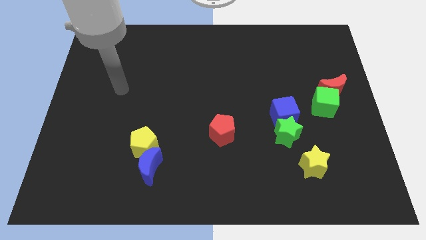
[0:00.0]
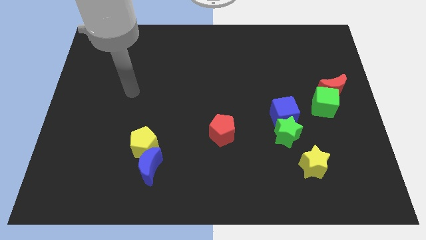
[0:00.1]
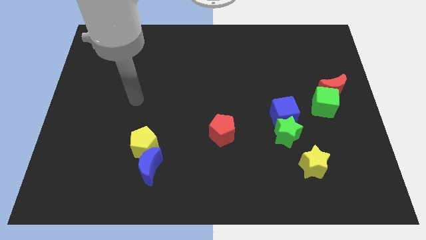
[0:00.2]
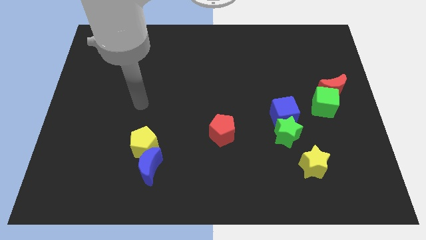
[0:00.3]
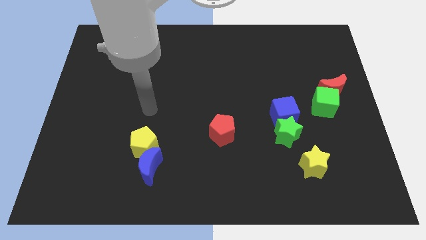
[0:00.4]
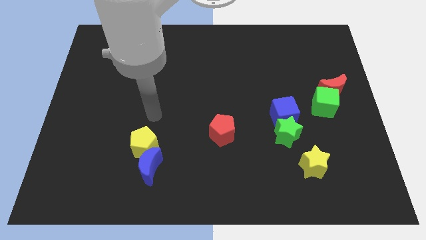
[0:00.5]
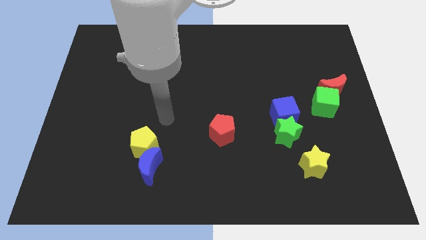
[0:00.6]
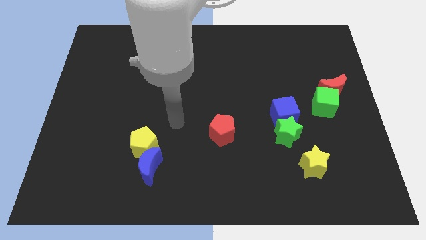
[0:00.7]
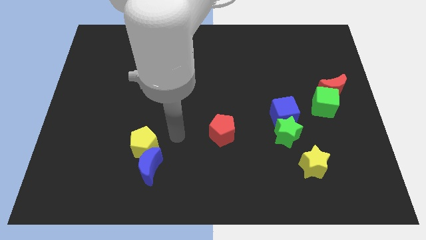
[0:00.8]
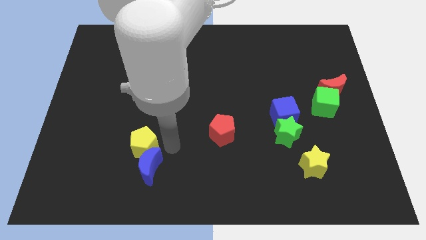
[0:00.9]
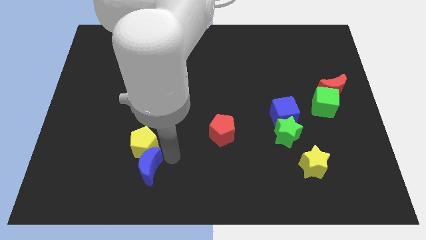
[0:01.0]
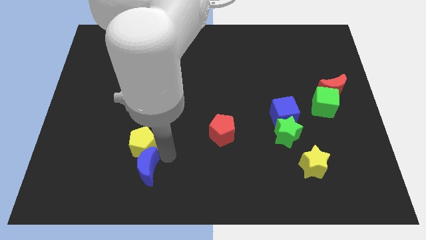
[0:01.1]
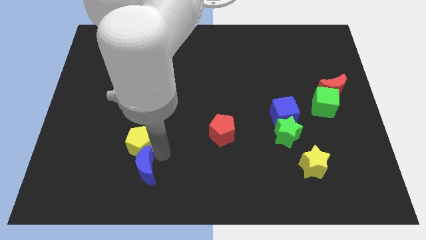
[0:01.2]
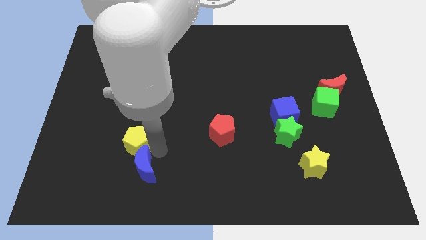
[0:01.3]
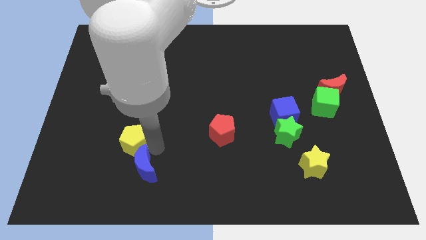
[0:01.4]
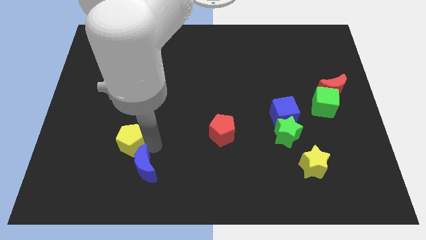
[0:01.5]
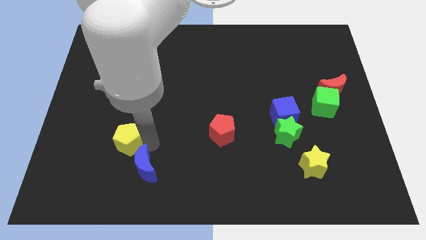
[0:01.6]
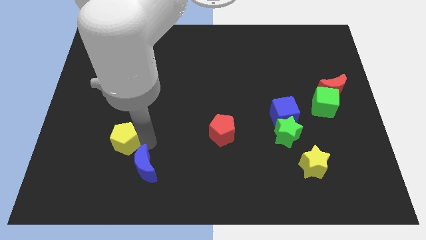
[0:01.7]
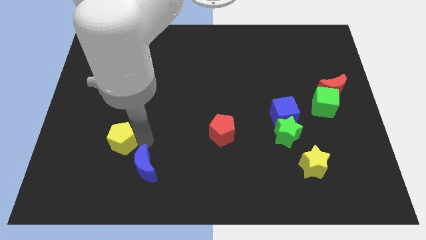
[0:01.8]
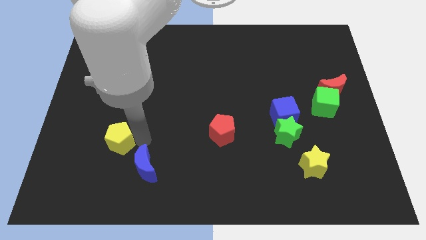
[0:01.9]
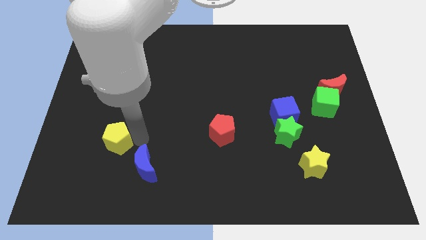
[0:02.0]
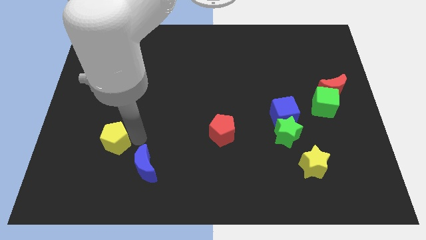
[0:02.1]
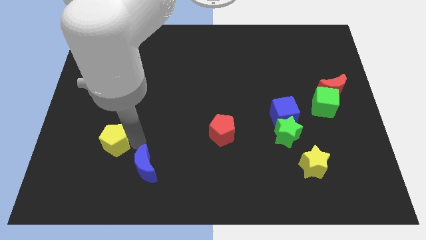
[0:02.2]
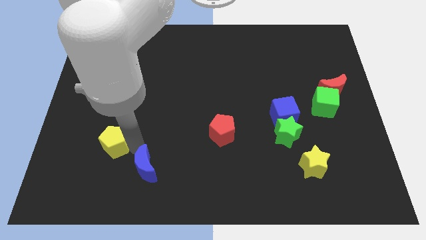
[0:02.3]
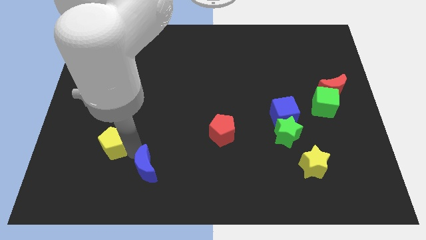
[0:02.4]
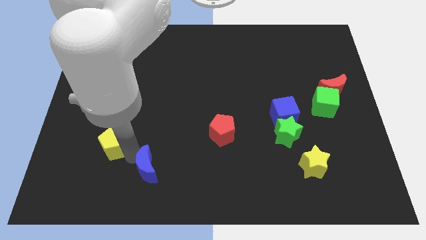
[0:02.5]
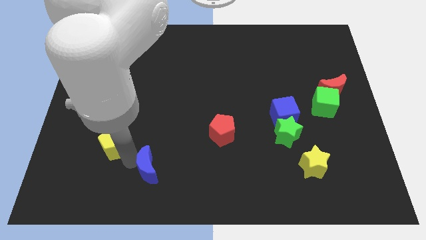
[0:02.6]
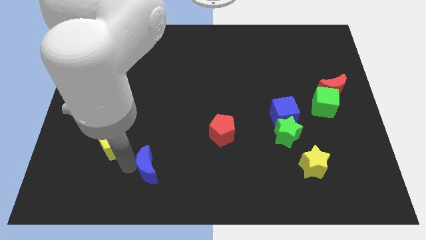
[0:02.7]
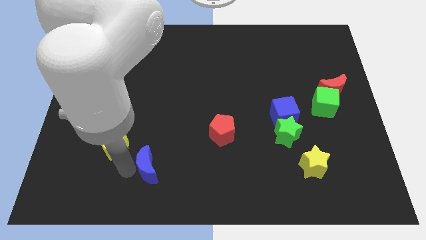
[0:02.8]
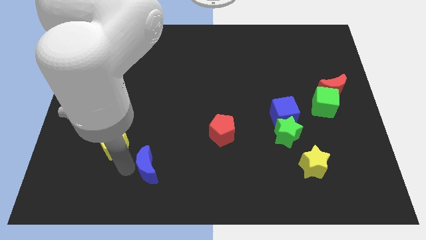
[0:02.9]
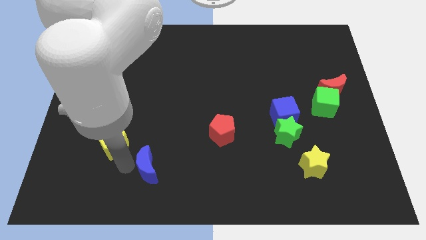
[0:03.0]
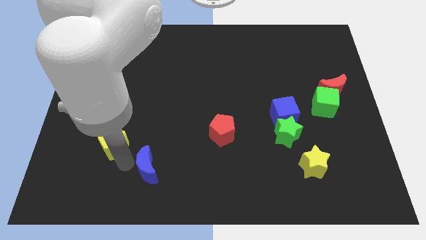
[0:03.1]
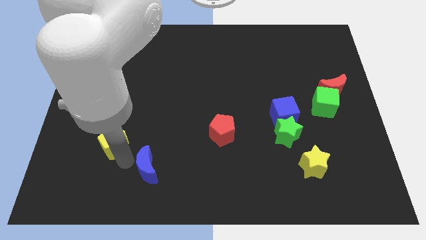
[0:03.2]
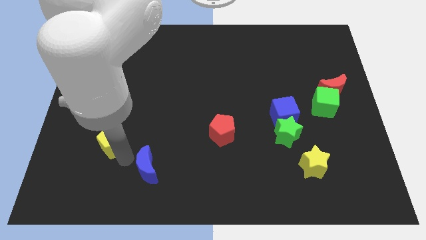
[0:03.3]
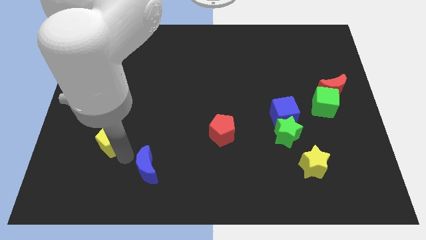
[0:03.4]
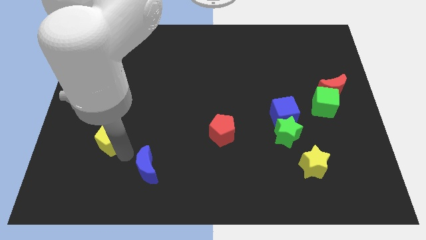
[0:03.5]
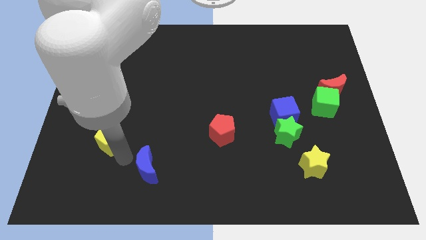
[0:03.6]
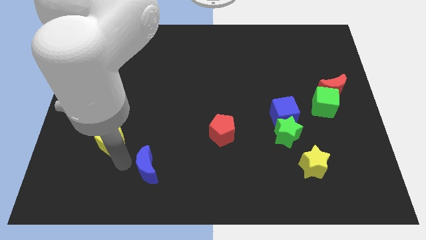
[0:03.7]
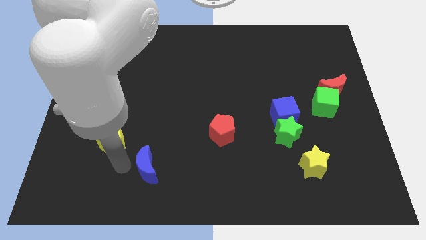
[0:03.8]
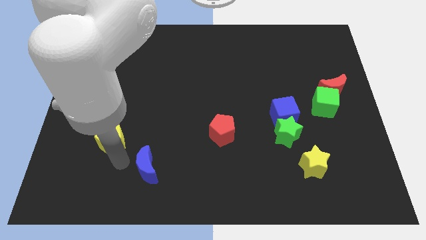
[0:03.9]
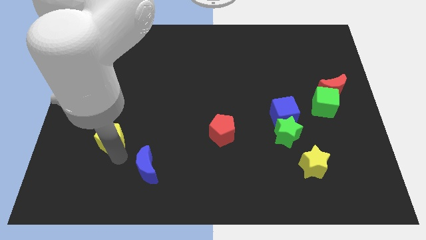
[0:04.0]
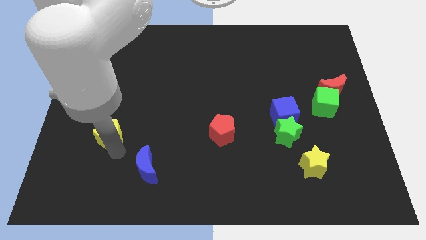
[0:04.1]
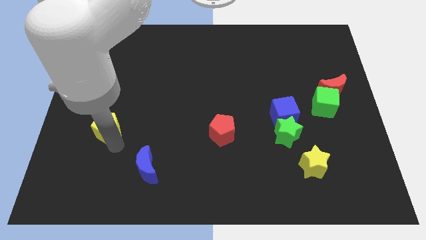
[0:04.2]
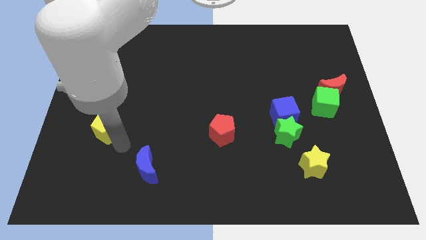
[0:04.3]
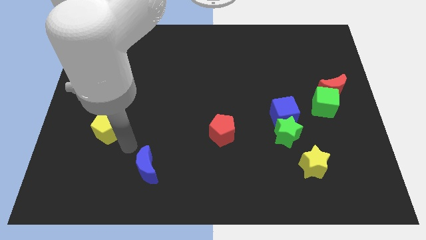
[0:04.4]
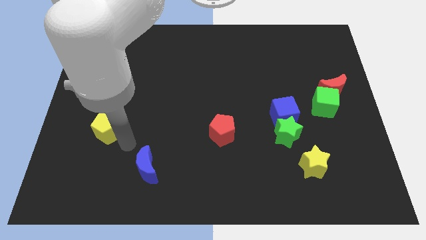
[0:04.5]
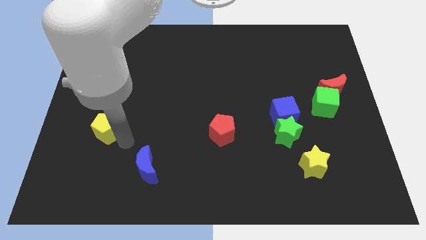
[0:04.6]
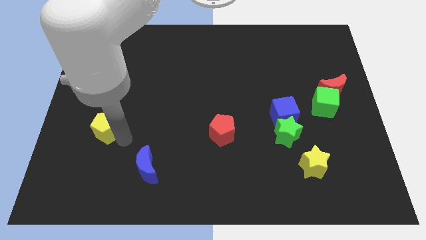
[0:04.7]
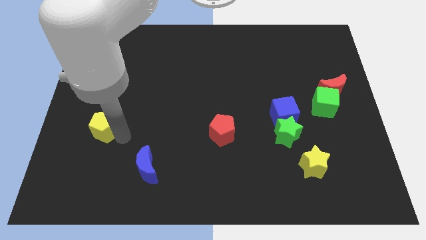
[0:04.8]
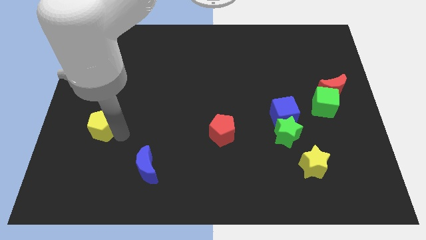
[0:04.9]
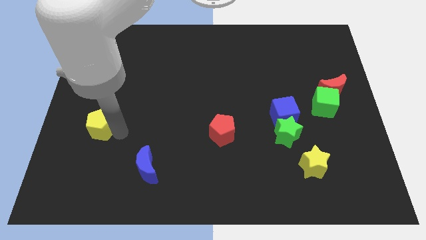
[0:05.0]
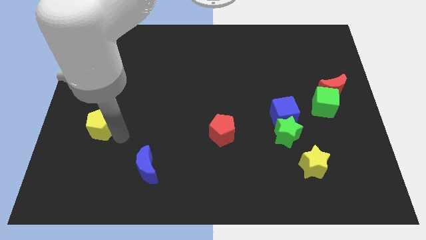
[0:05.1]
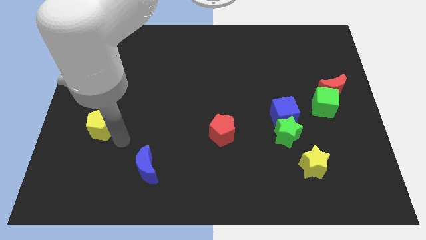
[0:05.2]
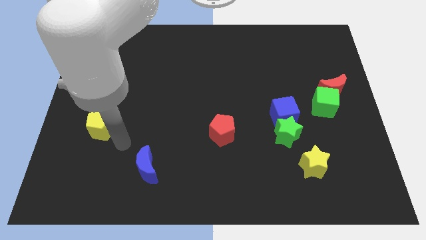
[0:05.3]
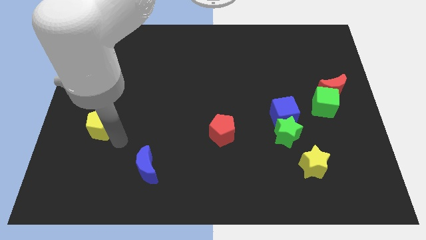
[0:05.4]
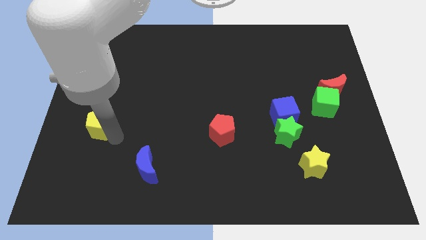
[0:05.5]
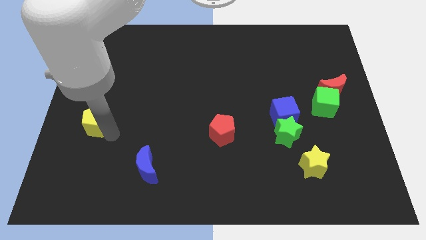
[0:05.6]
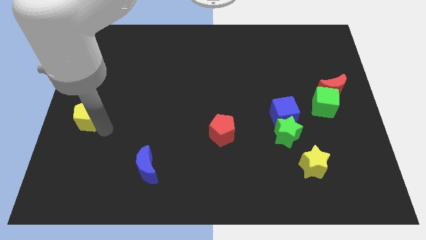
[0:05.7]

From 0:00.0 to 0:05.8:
push the yellow pentagon to the left side of the board

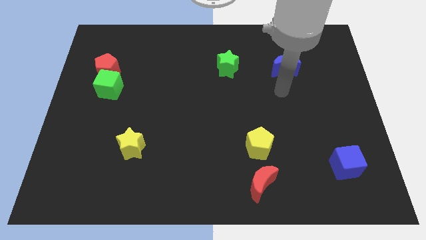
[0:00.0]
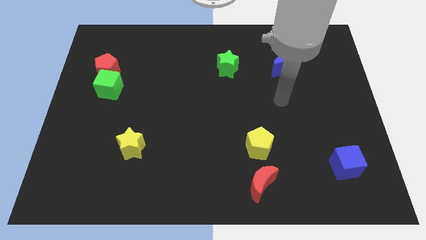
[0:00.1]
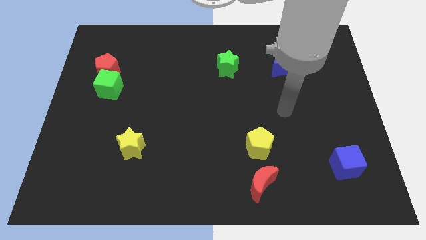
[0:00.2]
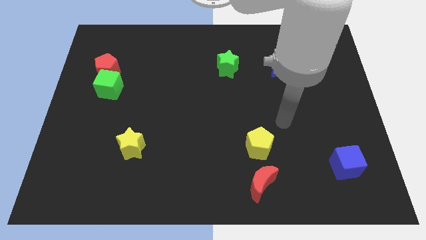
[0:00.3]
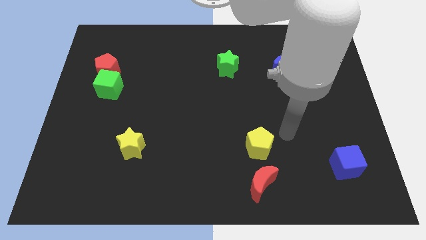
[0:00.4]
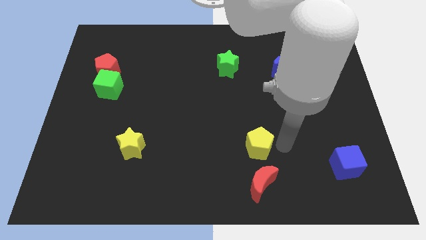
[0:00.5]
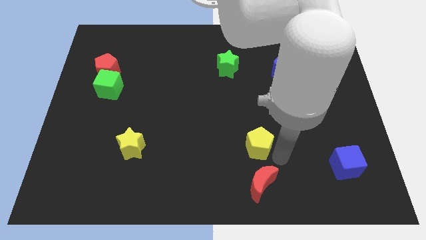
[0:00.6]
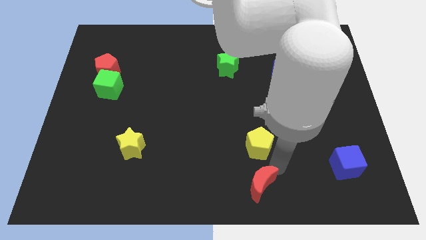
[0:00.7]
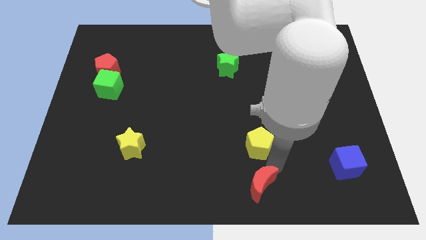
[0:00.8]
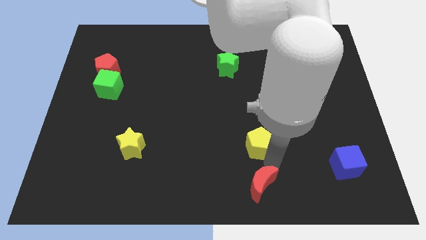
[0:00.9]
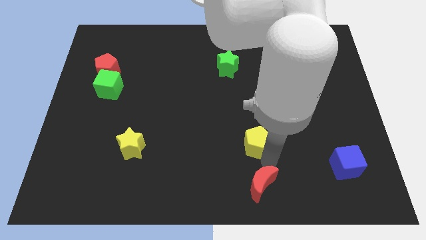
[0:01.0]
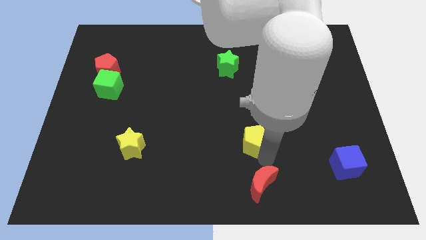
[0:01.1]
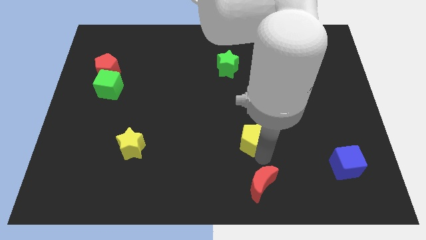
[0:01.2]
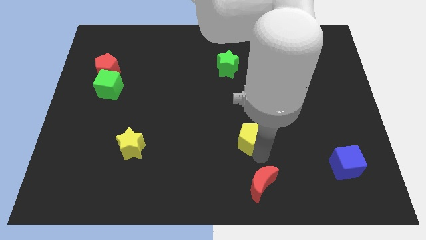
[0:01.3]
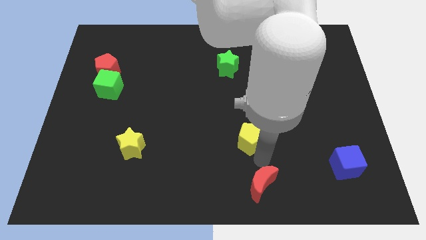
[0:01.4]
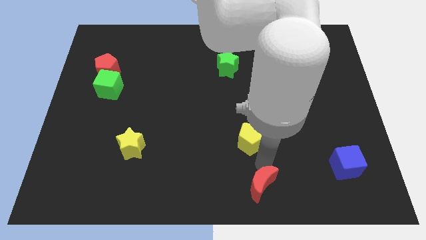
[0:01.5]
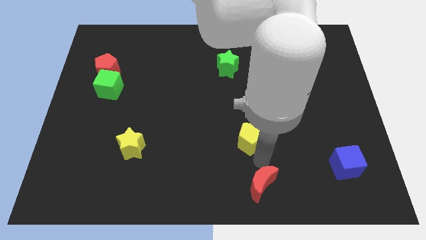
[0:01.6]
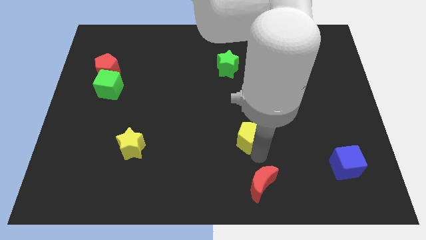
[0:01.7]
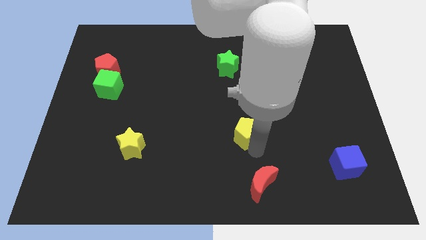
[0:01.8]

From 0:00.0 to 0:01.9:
push the yellow pentagon to the middle
